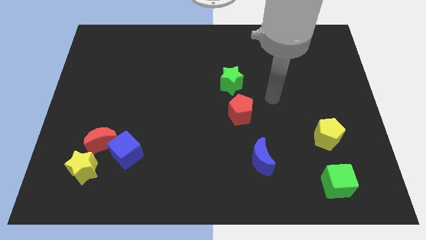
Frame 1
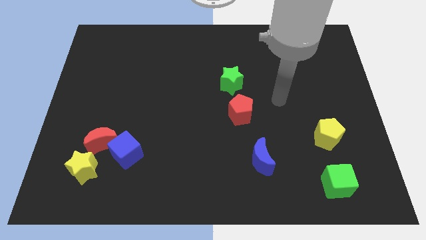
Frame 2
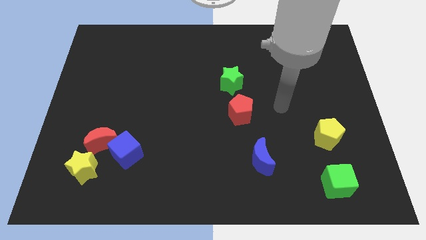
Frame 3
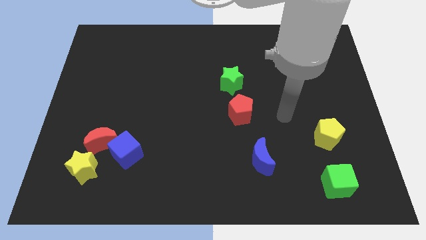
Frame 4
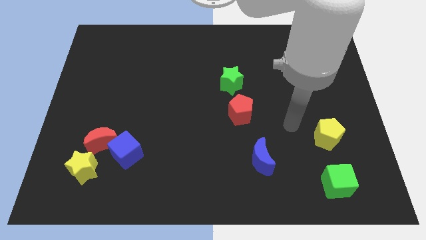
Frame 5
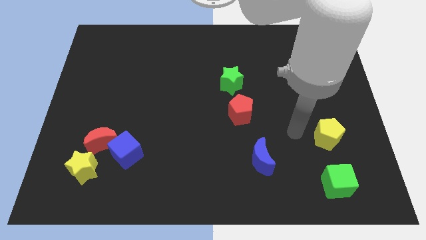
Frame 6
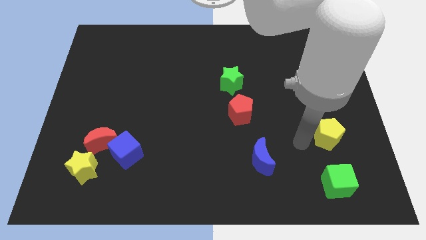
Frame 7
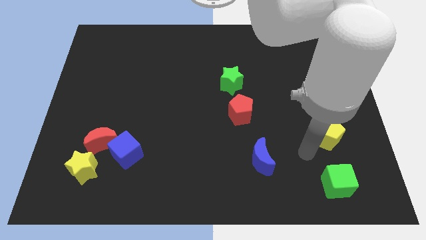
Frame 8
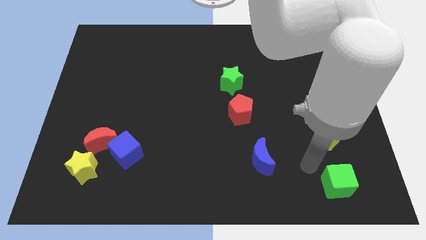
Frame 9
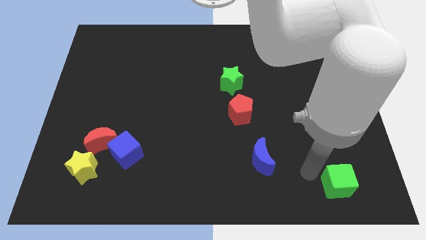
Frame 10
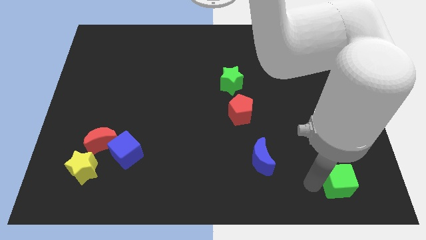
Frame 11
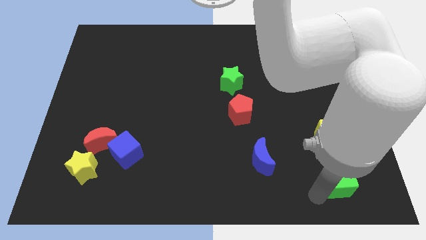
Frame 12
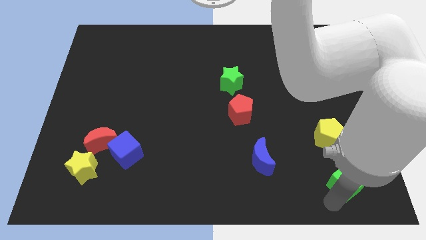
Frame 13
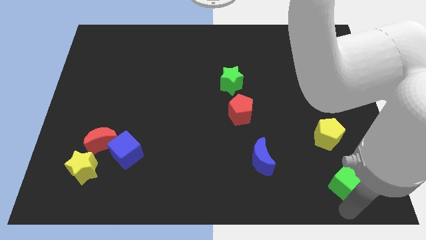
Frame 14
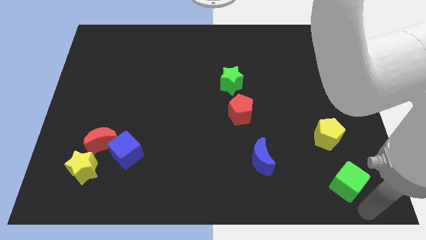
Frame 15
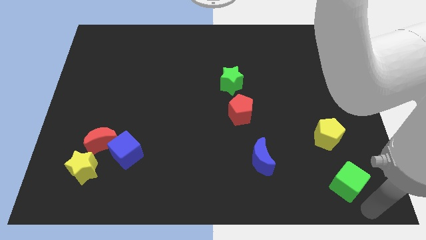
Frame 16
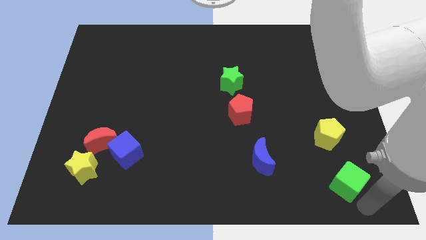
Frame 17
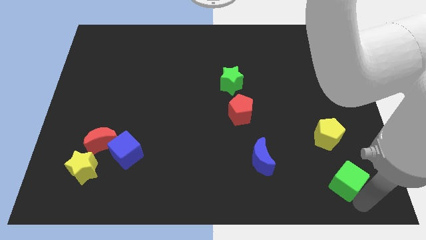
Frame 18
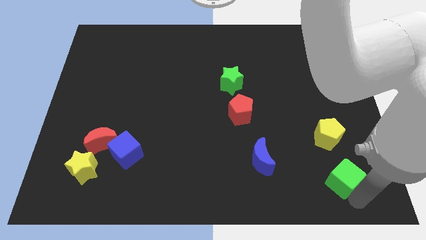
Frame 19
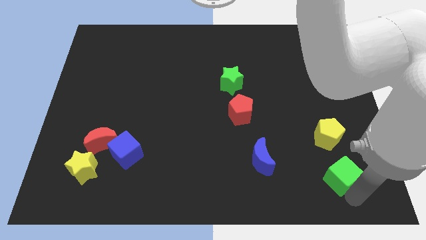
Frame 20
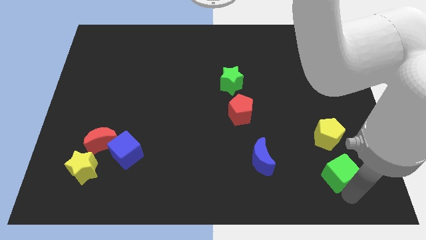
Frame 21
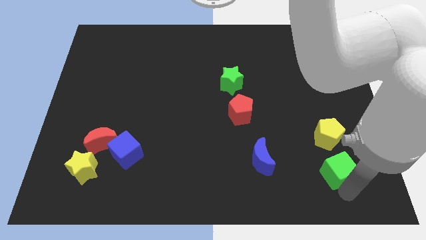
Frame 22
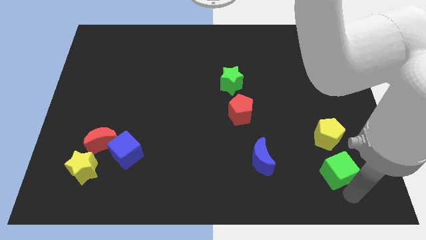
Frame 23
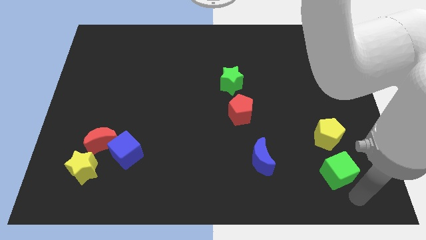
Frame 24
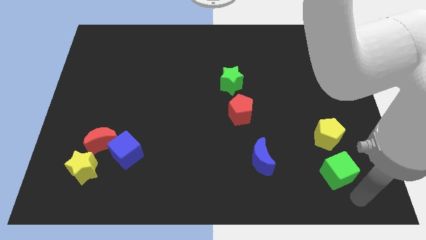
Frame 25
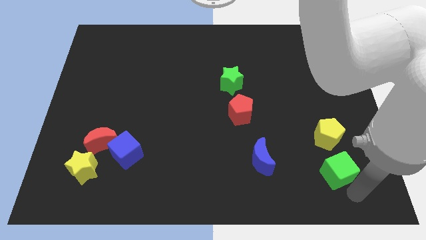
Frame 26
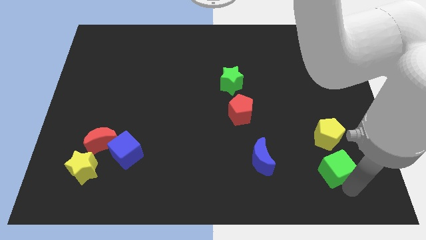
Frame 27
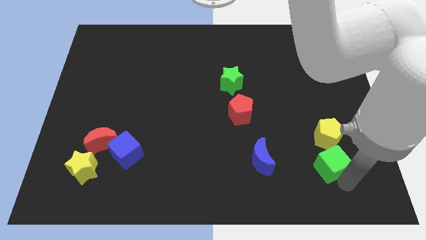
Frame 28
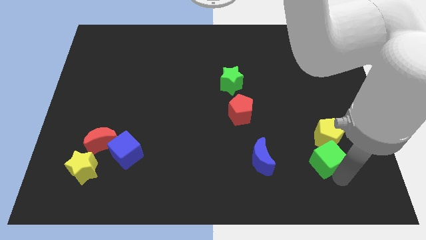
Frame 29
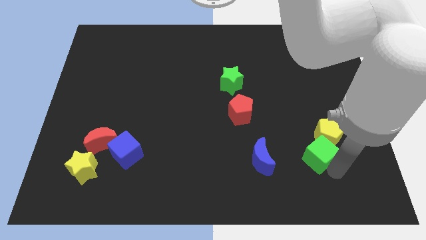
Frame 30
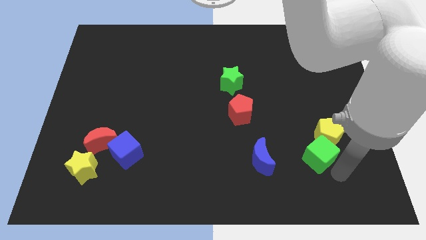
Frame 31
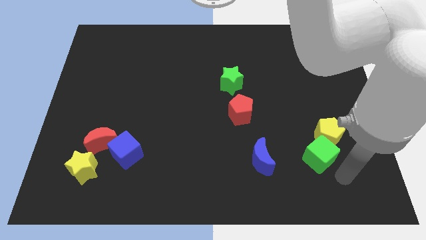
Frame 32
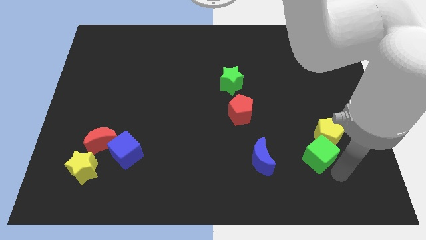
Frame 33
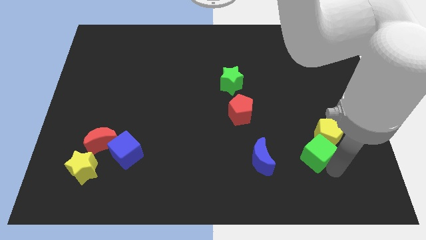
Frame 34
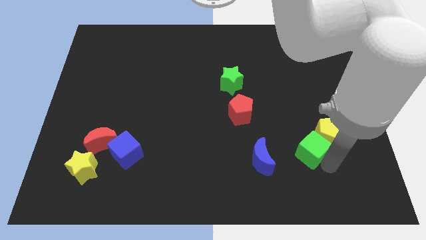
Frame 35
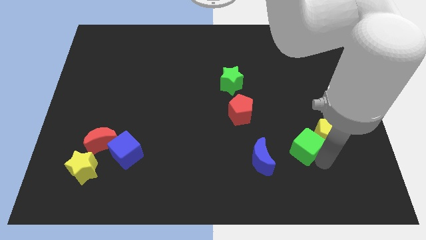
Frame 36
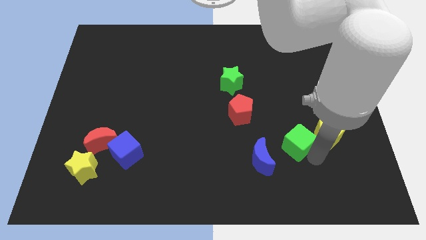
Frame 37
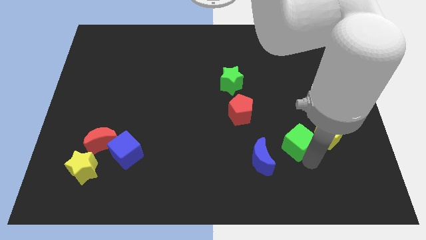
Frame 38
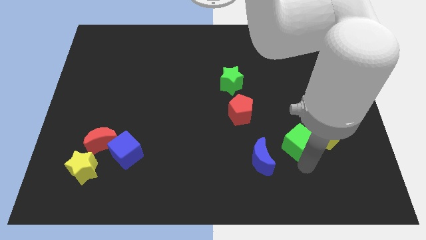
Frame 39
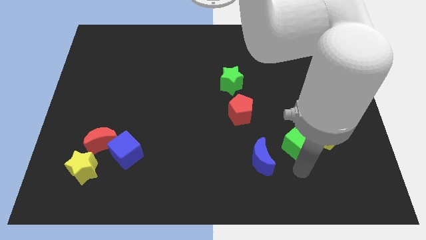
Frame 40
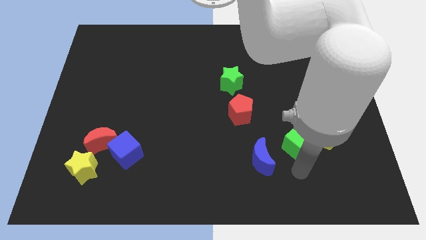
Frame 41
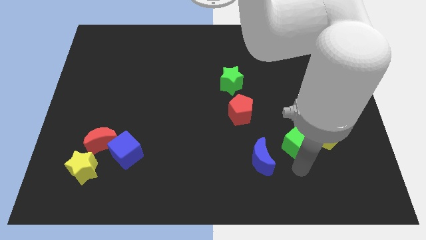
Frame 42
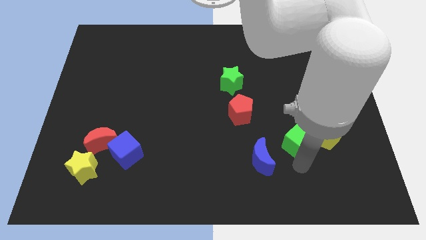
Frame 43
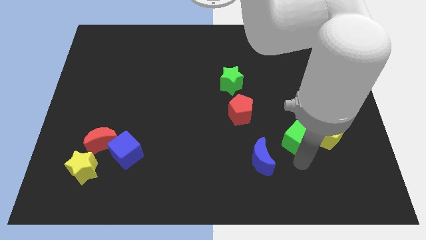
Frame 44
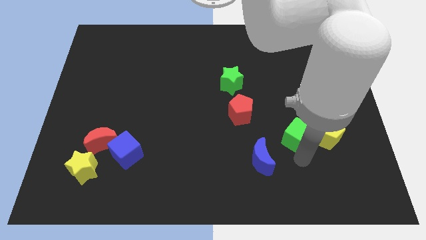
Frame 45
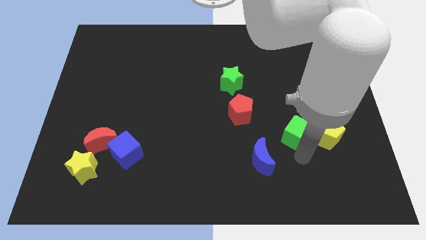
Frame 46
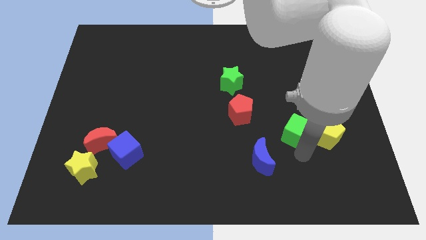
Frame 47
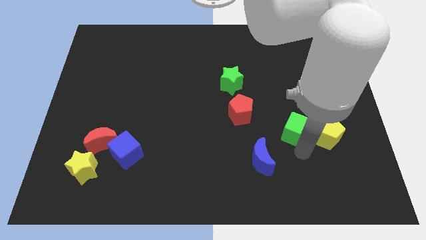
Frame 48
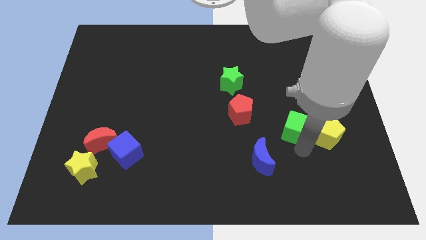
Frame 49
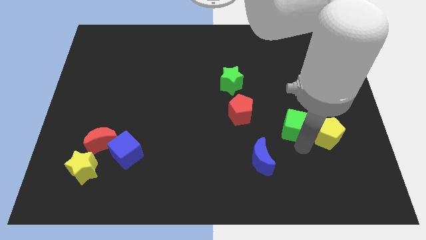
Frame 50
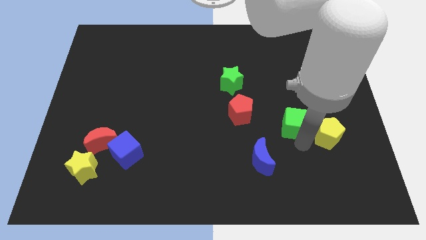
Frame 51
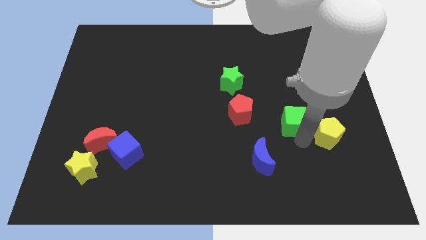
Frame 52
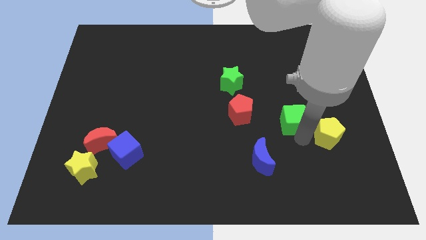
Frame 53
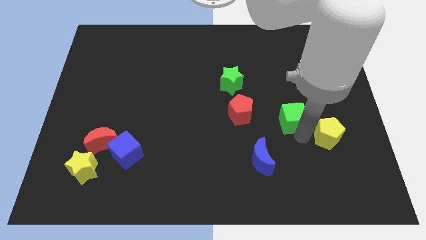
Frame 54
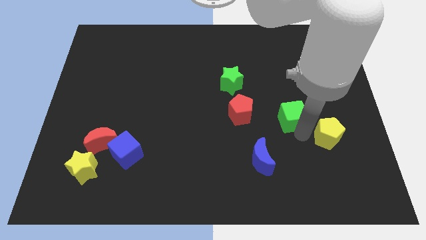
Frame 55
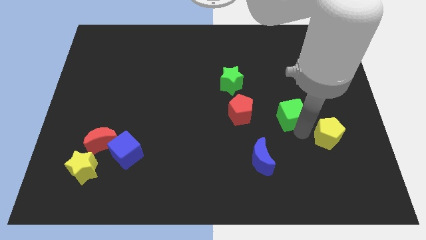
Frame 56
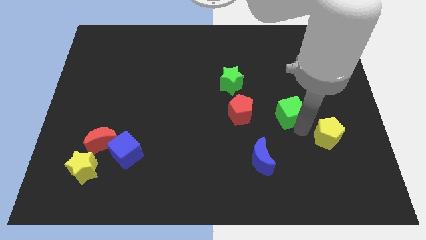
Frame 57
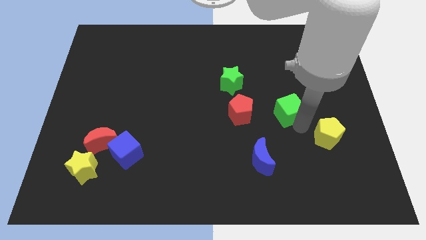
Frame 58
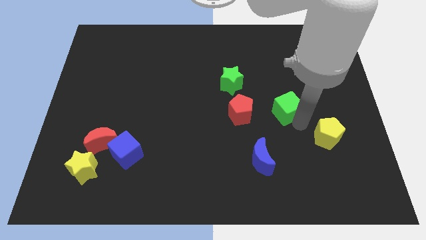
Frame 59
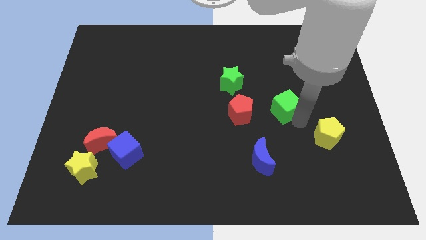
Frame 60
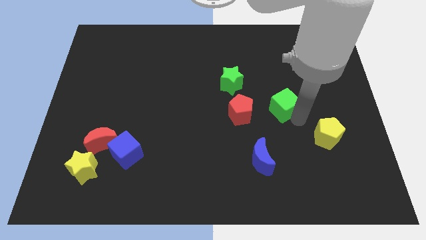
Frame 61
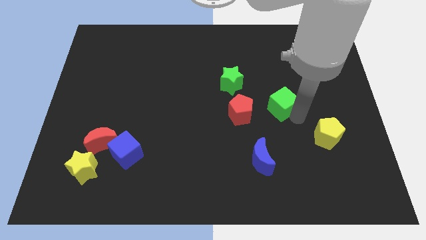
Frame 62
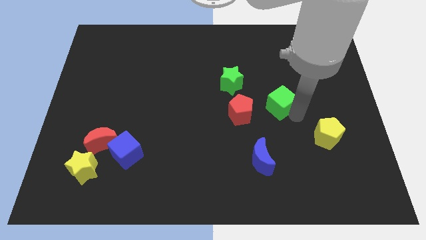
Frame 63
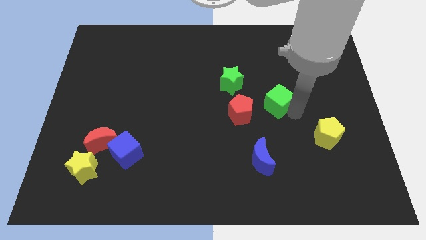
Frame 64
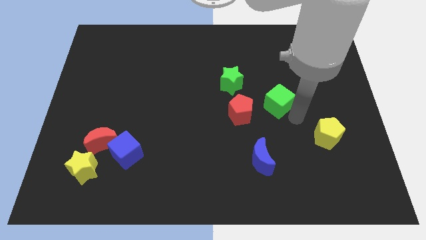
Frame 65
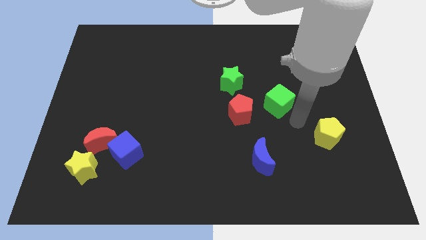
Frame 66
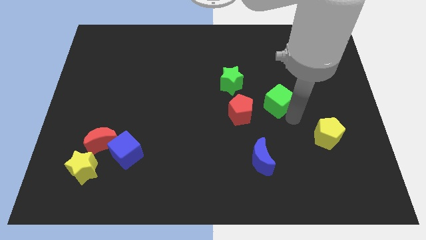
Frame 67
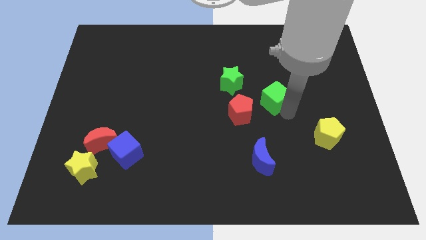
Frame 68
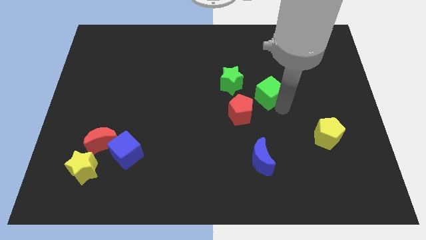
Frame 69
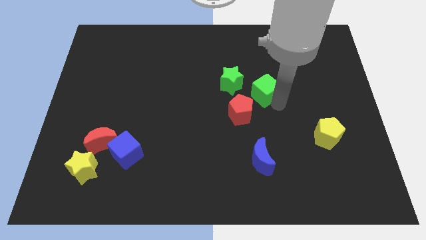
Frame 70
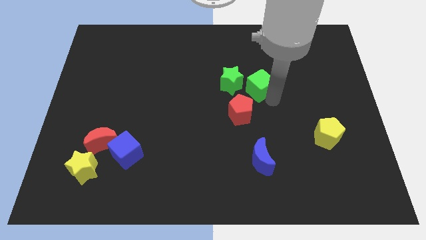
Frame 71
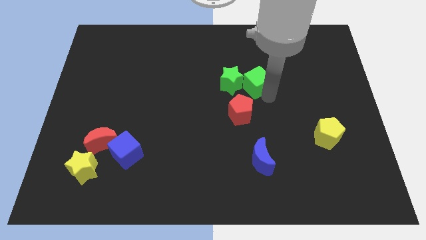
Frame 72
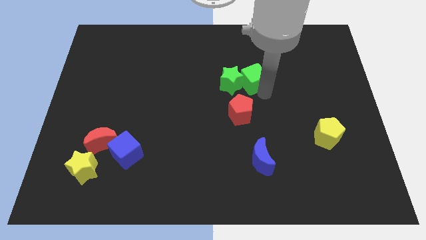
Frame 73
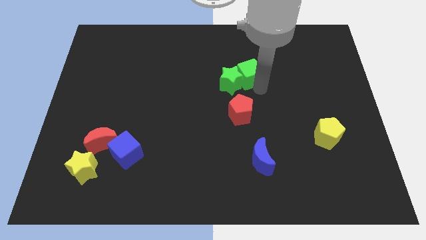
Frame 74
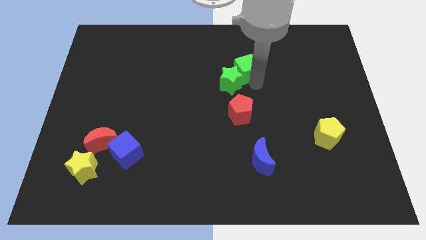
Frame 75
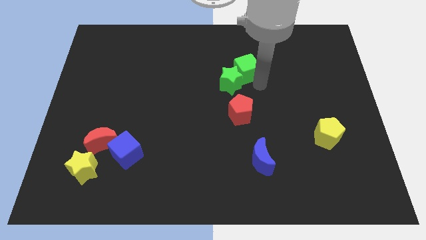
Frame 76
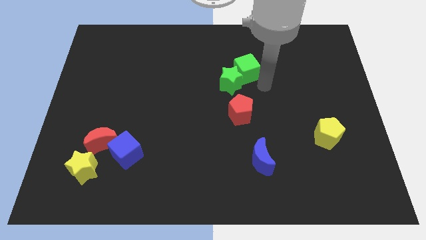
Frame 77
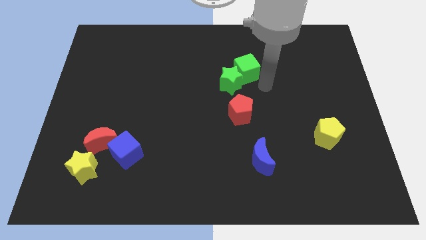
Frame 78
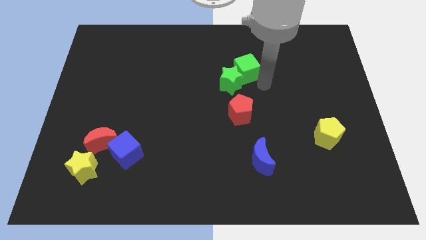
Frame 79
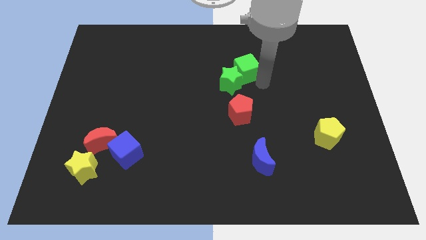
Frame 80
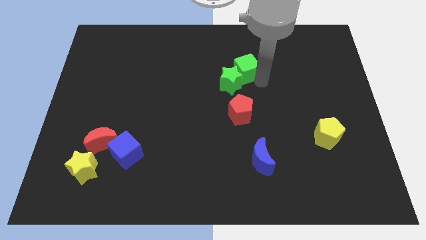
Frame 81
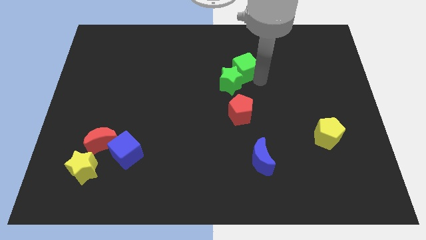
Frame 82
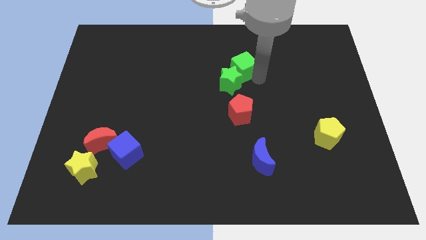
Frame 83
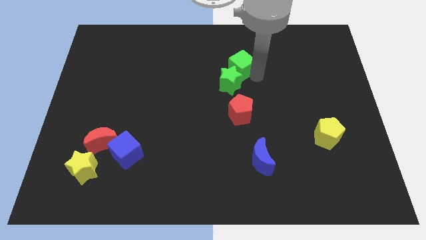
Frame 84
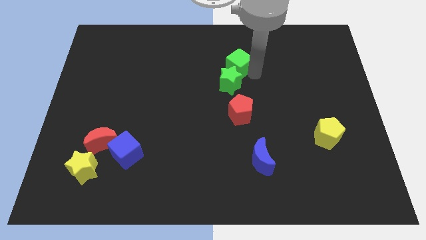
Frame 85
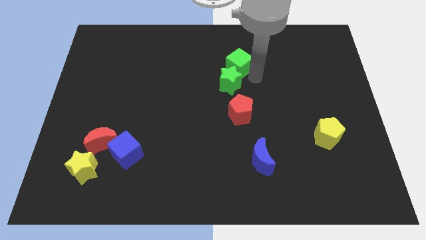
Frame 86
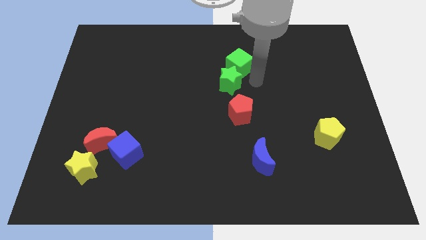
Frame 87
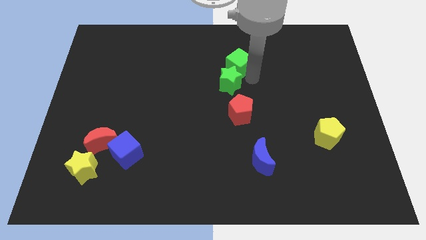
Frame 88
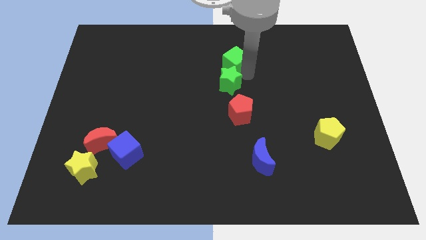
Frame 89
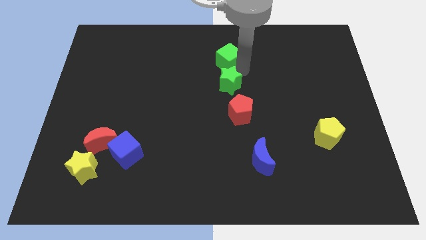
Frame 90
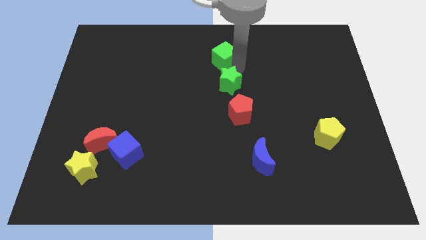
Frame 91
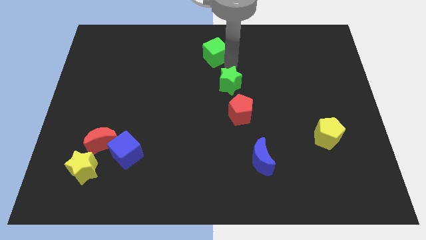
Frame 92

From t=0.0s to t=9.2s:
push the green cube to the top
